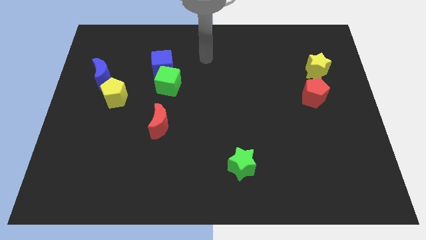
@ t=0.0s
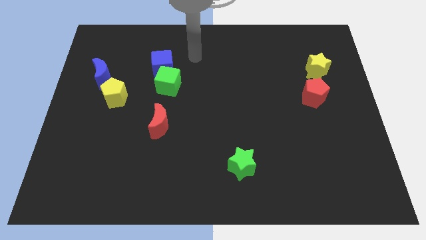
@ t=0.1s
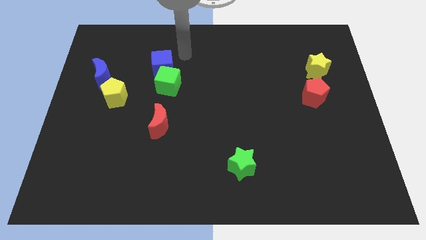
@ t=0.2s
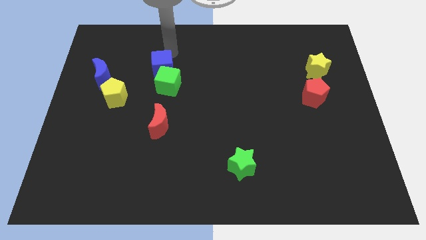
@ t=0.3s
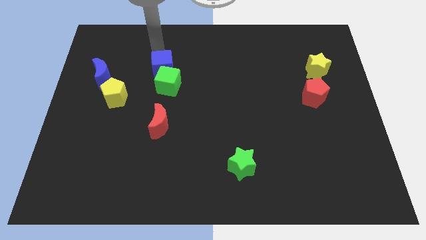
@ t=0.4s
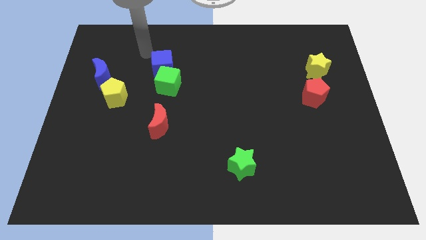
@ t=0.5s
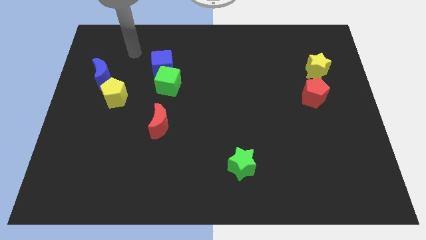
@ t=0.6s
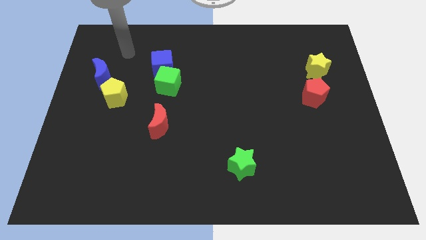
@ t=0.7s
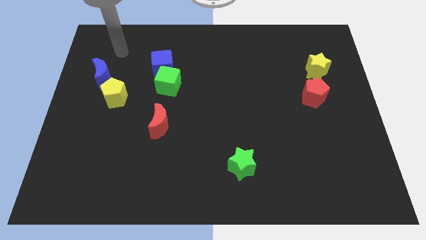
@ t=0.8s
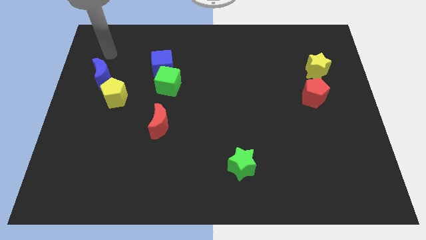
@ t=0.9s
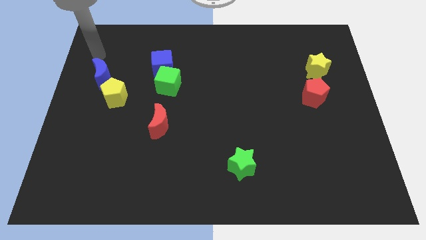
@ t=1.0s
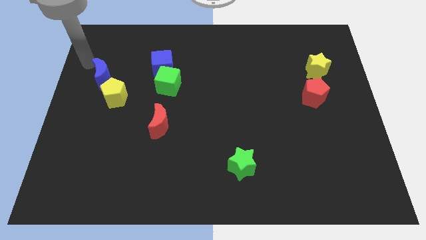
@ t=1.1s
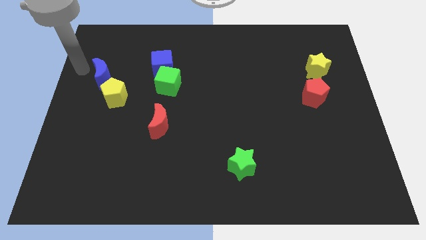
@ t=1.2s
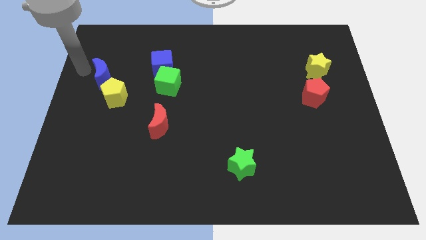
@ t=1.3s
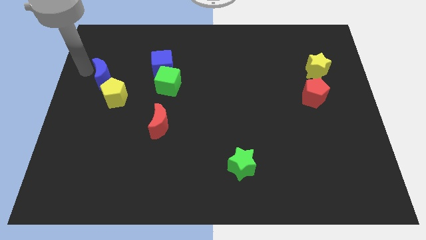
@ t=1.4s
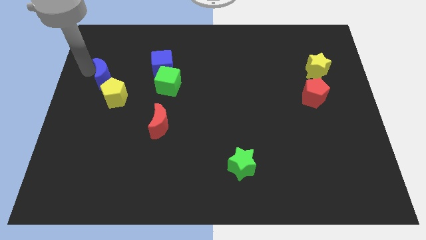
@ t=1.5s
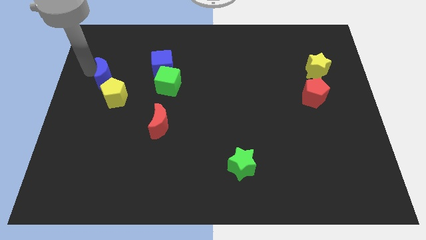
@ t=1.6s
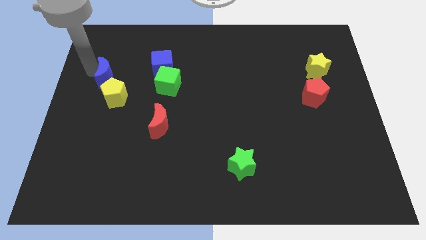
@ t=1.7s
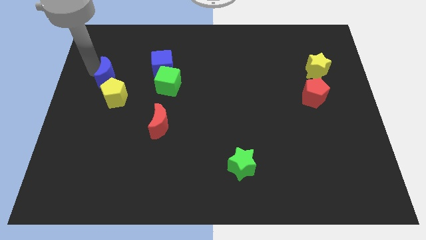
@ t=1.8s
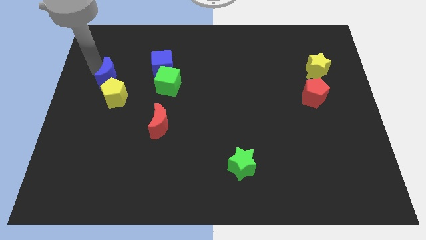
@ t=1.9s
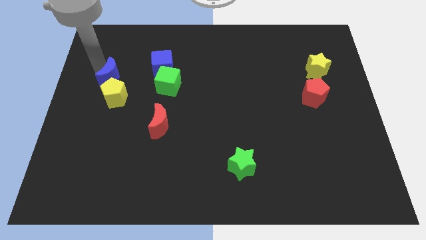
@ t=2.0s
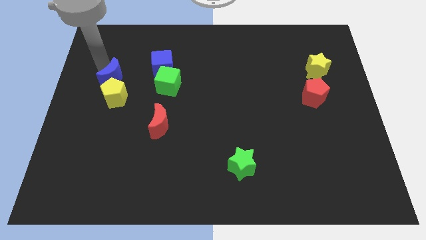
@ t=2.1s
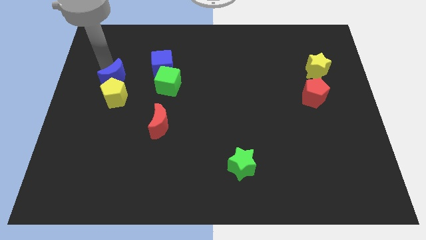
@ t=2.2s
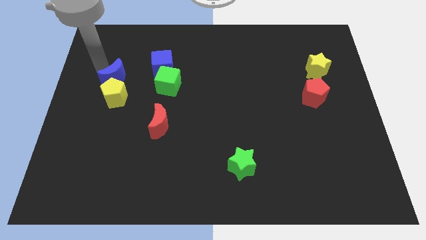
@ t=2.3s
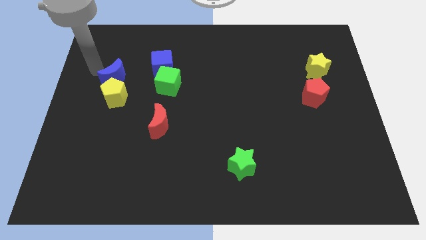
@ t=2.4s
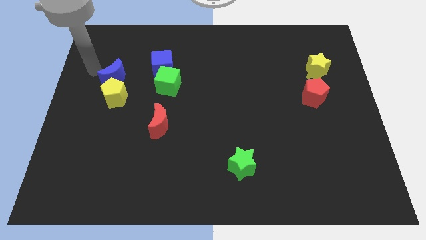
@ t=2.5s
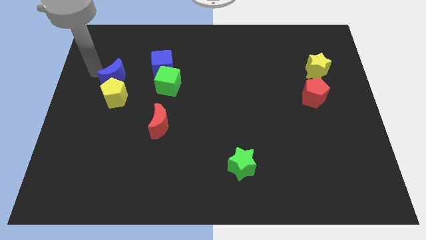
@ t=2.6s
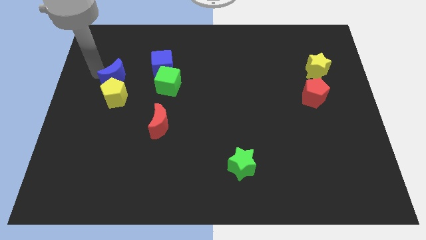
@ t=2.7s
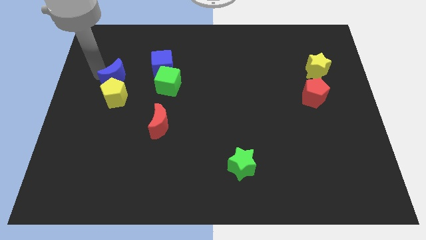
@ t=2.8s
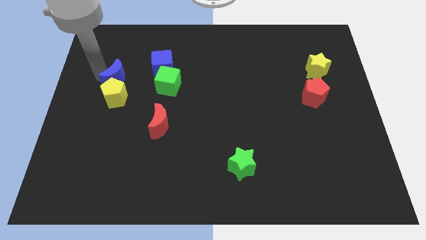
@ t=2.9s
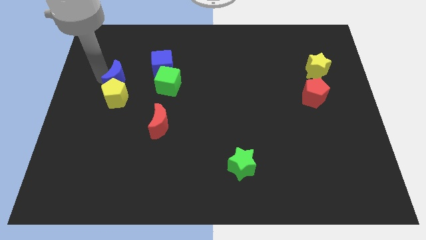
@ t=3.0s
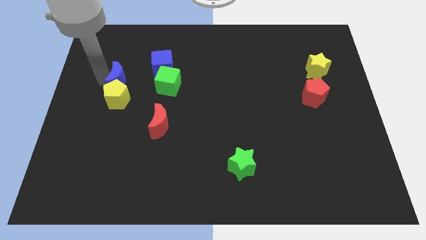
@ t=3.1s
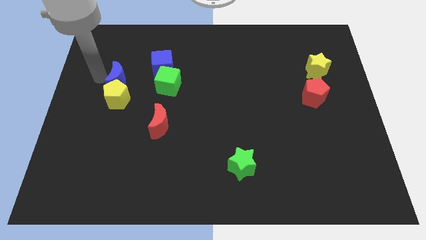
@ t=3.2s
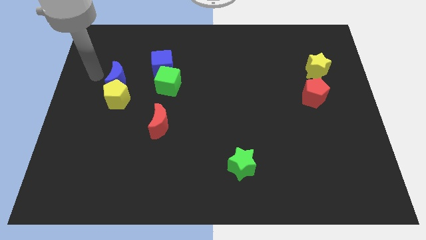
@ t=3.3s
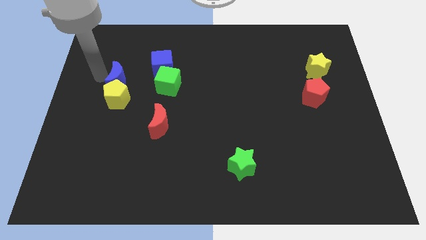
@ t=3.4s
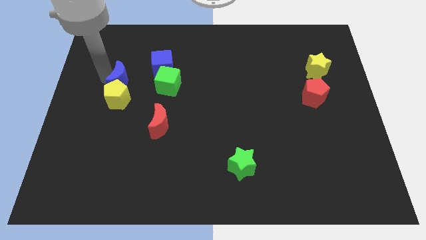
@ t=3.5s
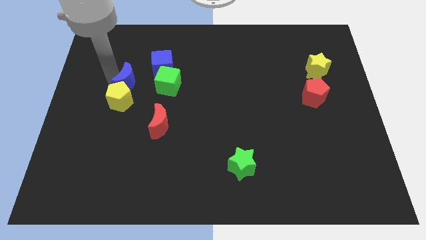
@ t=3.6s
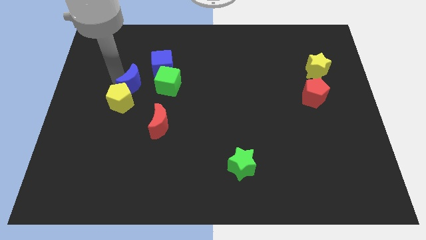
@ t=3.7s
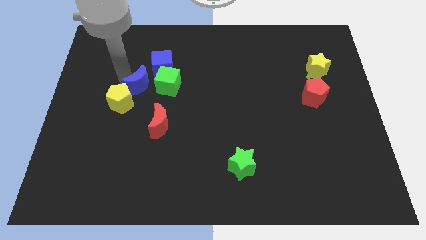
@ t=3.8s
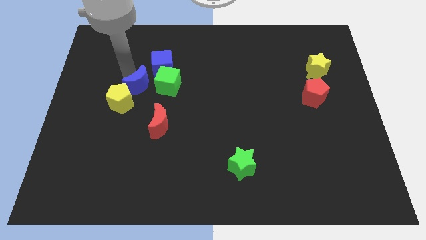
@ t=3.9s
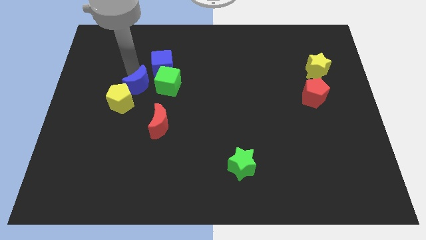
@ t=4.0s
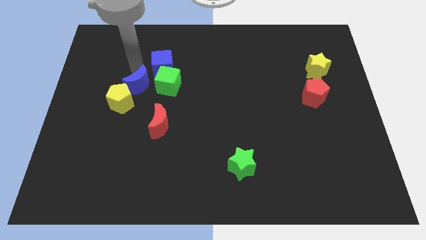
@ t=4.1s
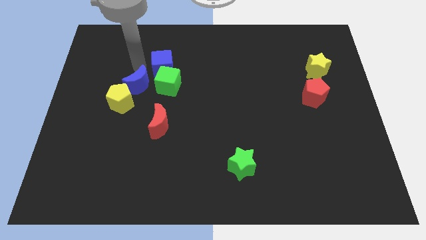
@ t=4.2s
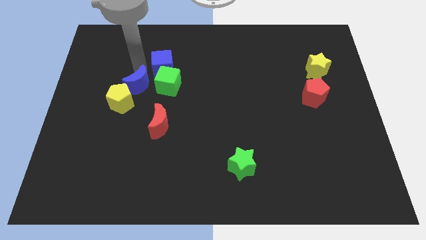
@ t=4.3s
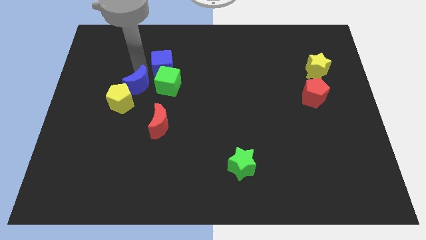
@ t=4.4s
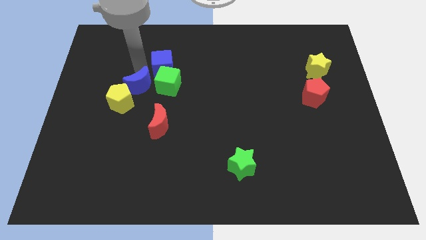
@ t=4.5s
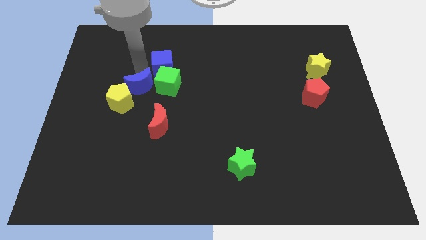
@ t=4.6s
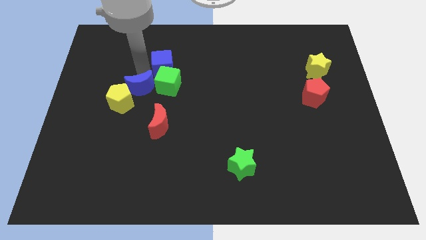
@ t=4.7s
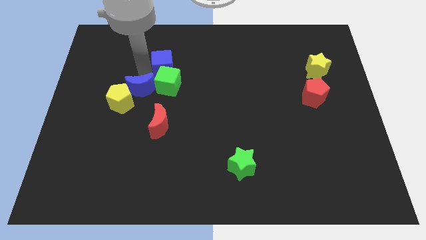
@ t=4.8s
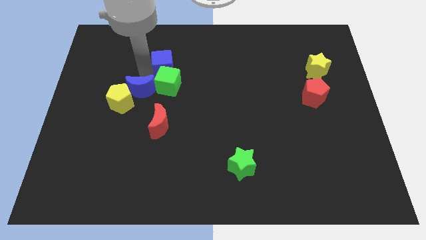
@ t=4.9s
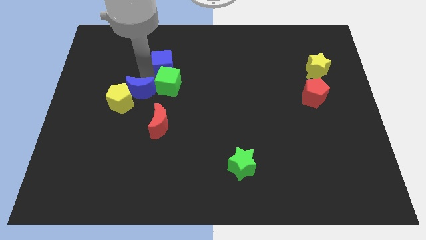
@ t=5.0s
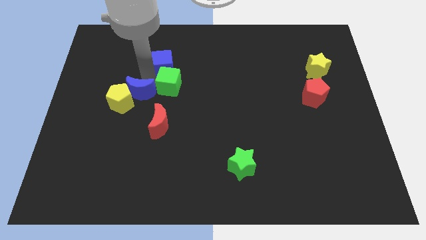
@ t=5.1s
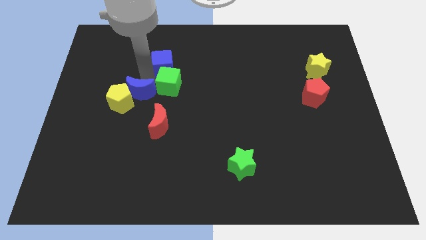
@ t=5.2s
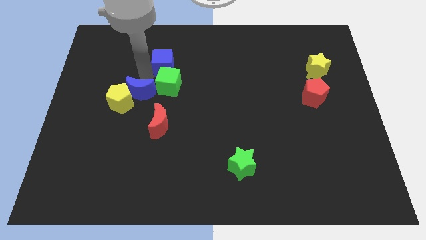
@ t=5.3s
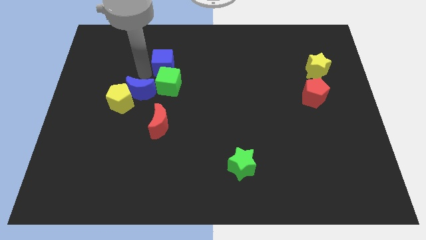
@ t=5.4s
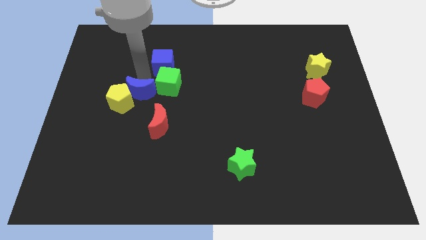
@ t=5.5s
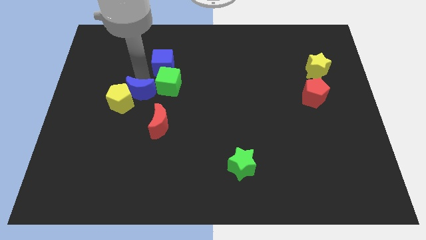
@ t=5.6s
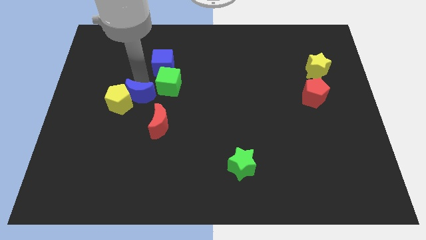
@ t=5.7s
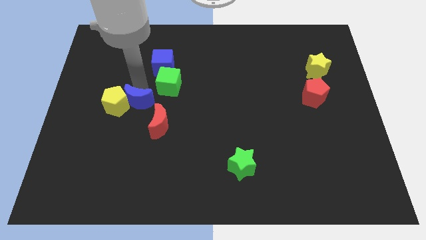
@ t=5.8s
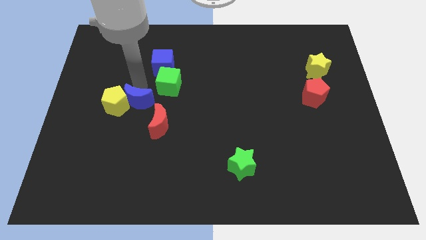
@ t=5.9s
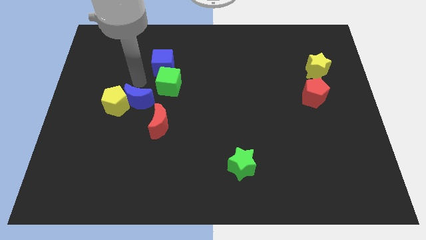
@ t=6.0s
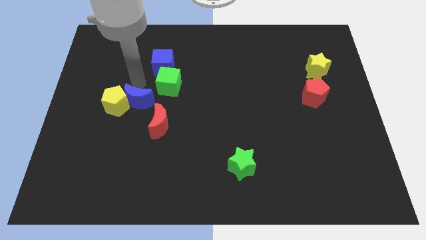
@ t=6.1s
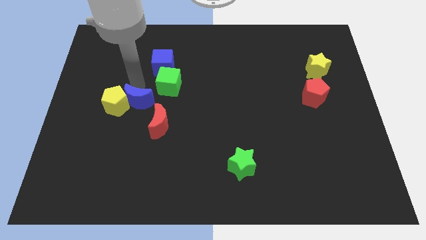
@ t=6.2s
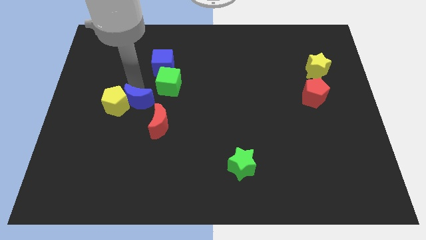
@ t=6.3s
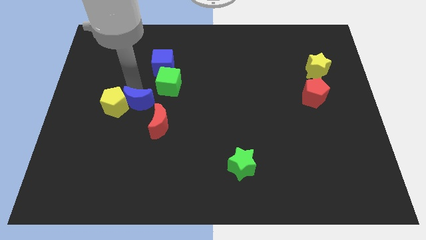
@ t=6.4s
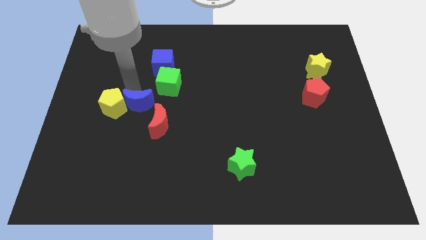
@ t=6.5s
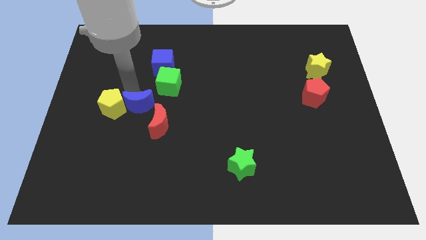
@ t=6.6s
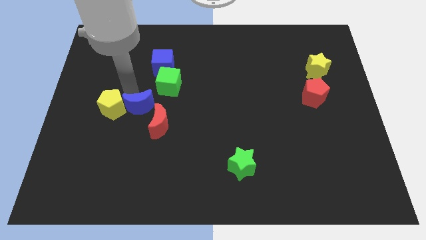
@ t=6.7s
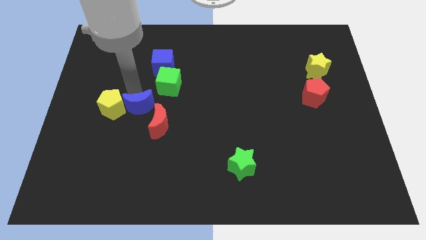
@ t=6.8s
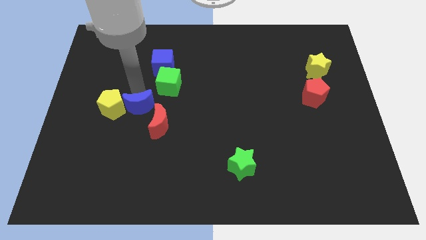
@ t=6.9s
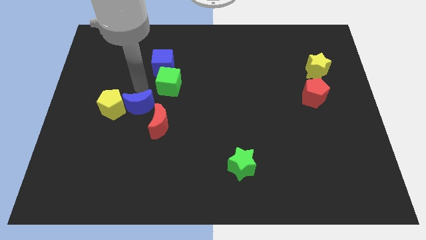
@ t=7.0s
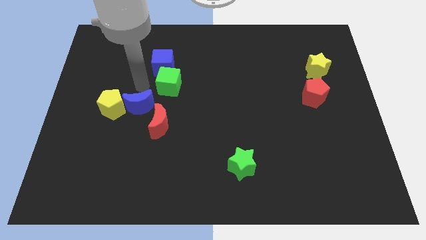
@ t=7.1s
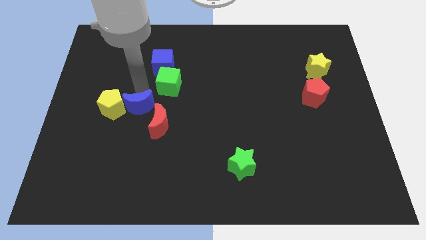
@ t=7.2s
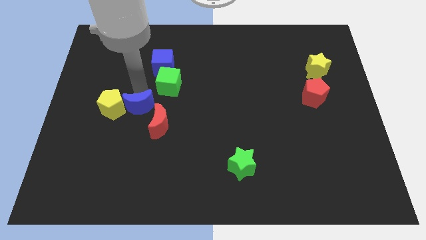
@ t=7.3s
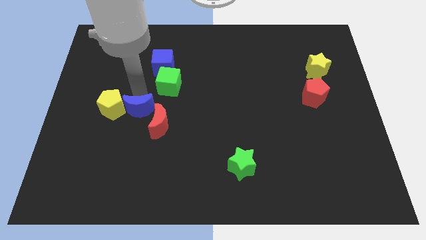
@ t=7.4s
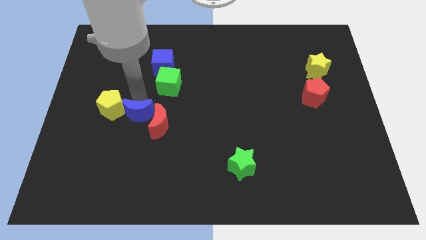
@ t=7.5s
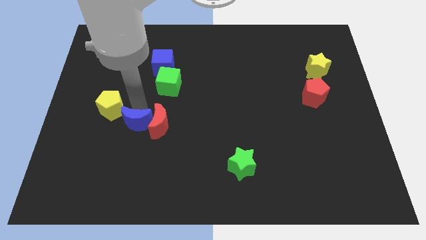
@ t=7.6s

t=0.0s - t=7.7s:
put the blue moon to the bottom left of the red moon
